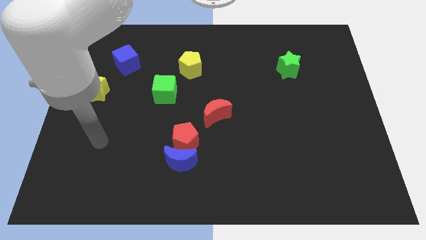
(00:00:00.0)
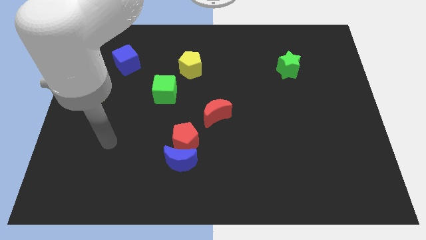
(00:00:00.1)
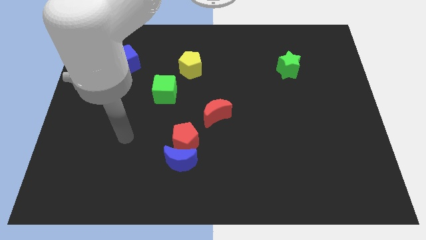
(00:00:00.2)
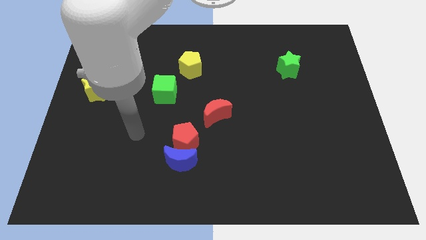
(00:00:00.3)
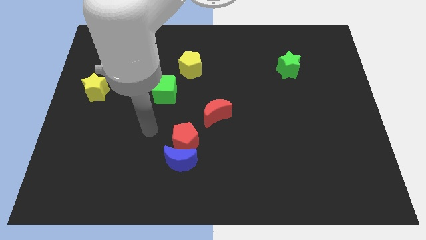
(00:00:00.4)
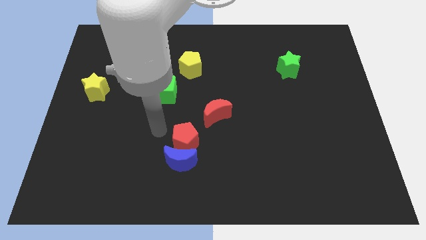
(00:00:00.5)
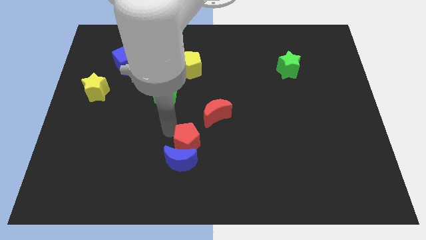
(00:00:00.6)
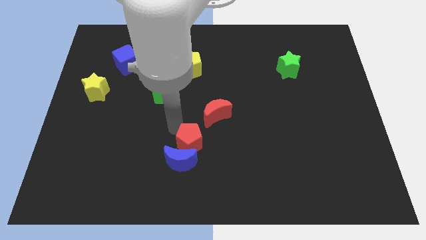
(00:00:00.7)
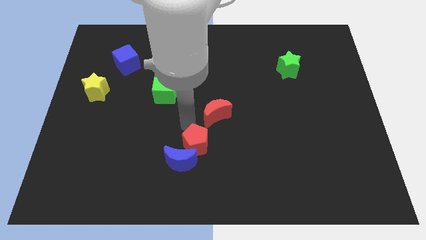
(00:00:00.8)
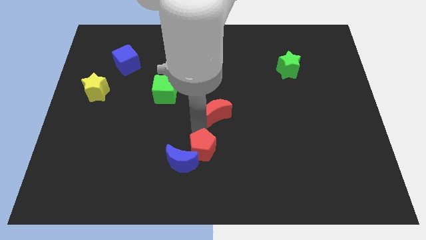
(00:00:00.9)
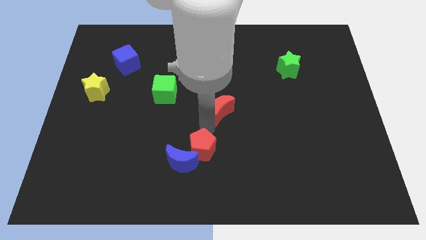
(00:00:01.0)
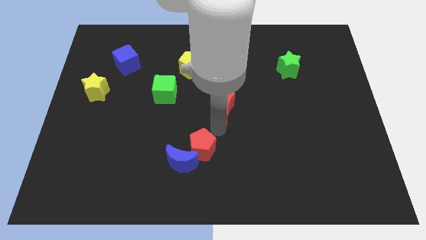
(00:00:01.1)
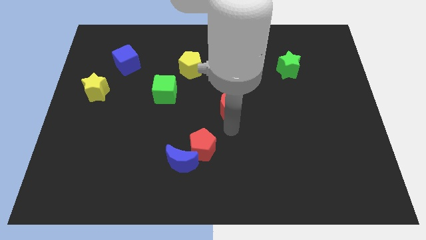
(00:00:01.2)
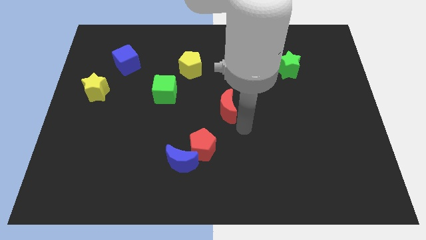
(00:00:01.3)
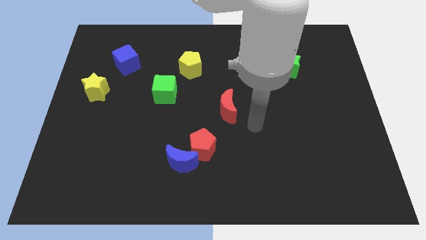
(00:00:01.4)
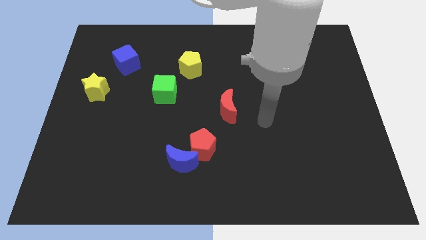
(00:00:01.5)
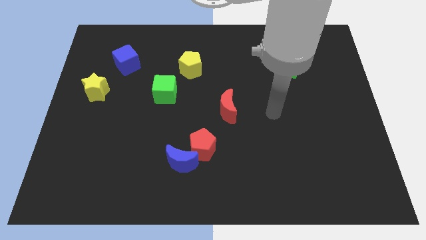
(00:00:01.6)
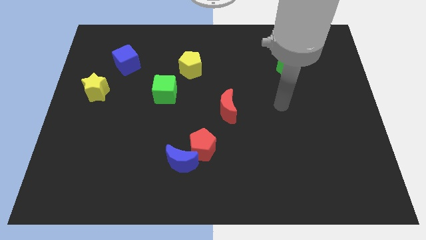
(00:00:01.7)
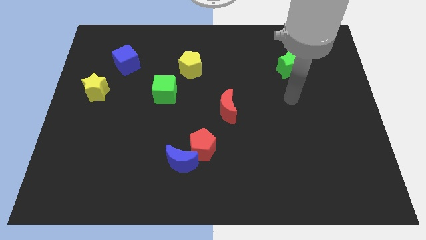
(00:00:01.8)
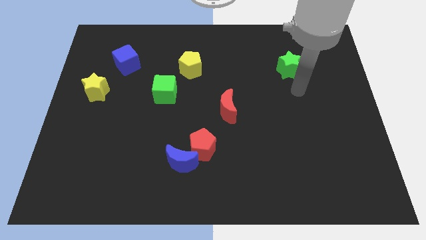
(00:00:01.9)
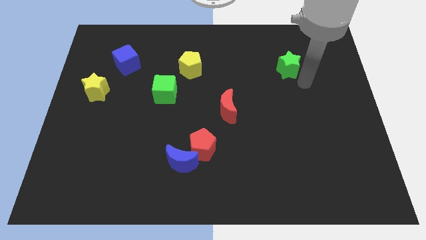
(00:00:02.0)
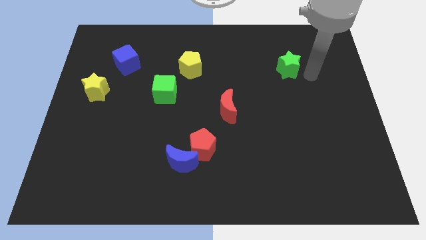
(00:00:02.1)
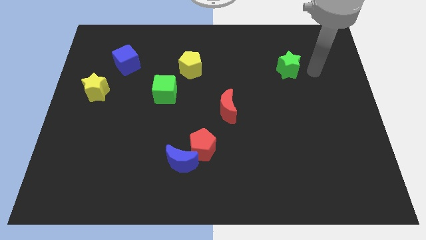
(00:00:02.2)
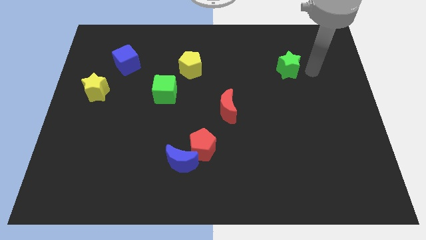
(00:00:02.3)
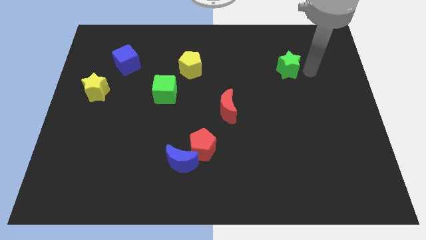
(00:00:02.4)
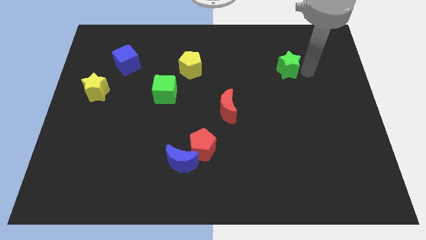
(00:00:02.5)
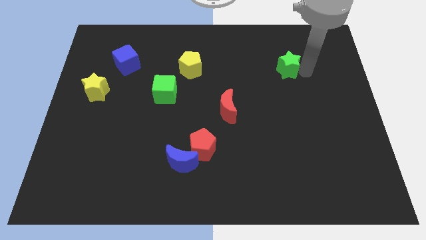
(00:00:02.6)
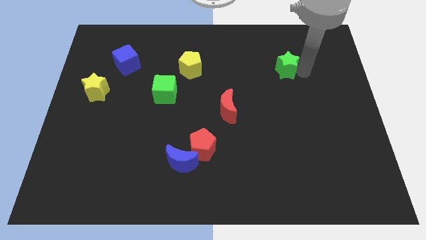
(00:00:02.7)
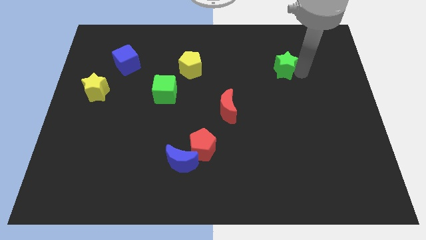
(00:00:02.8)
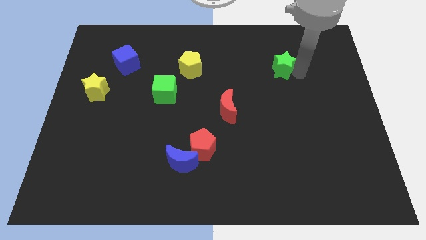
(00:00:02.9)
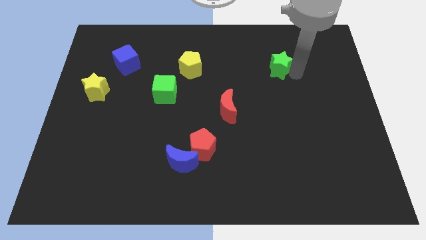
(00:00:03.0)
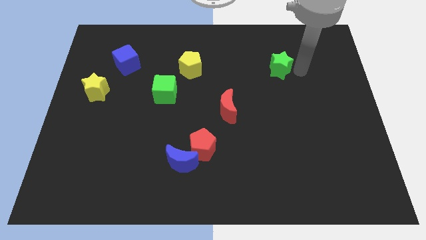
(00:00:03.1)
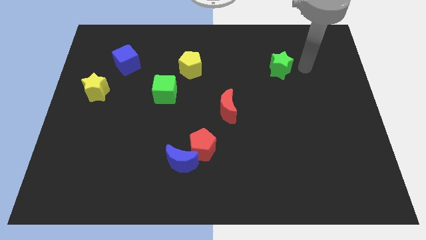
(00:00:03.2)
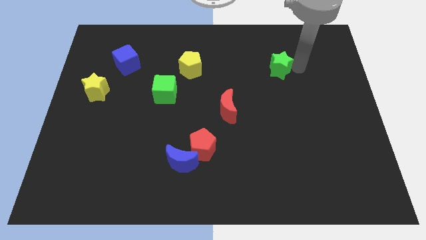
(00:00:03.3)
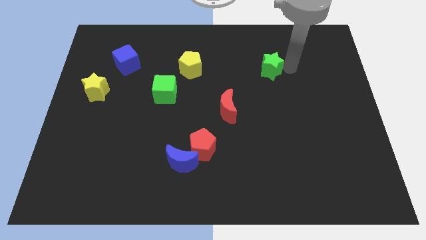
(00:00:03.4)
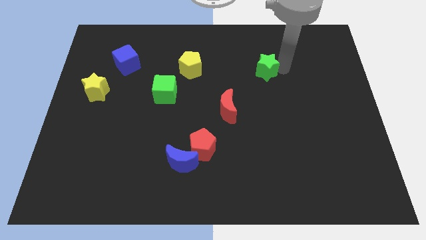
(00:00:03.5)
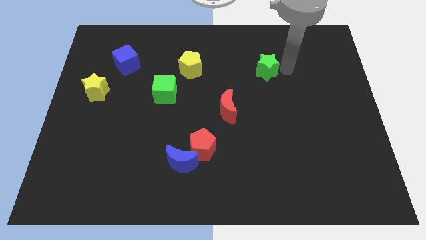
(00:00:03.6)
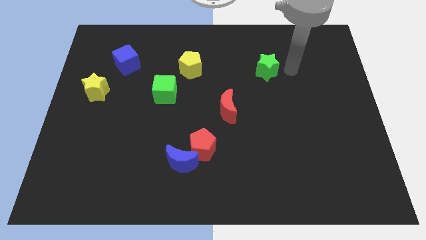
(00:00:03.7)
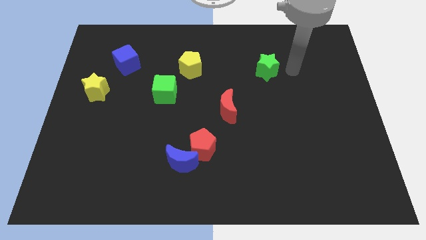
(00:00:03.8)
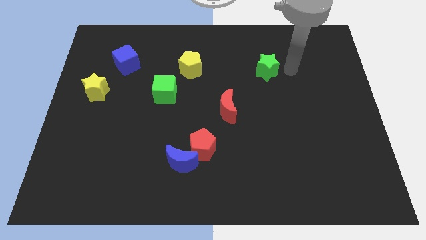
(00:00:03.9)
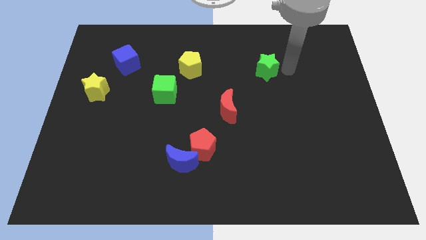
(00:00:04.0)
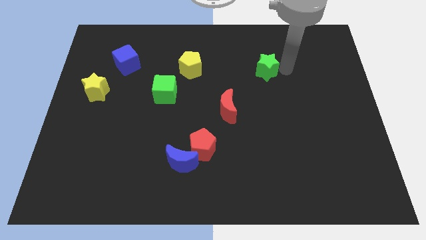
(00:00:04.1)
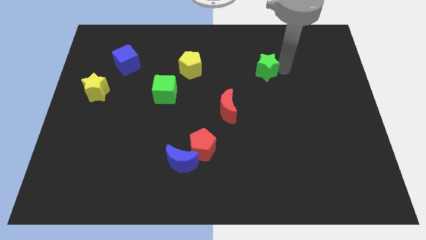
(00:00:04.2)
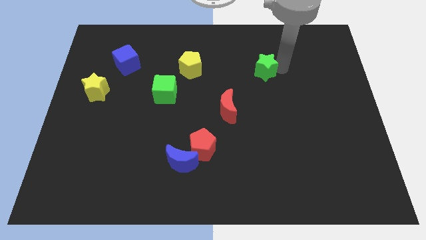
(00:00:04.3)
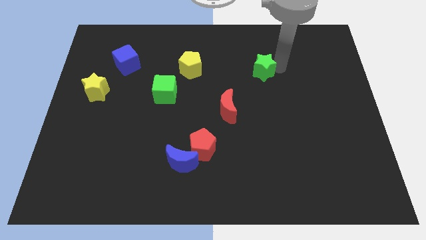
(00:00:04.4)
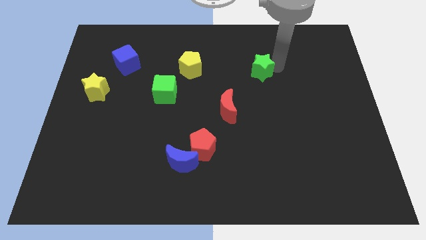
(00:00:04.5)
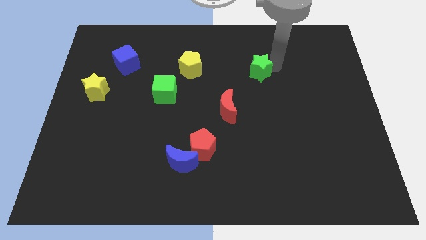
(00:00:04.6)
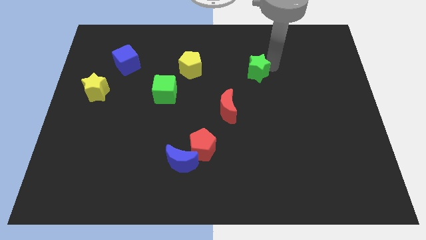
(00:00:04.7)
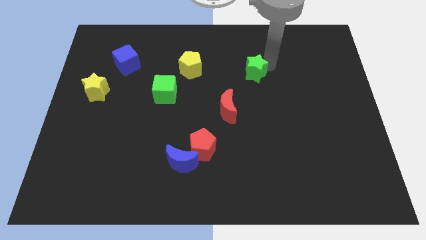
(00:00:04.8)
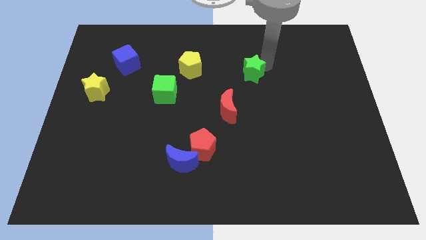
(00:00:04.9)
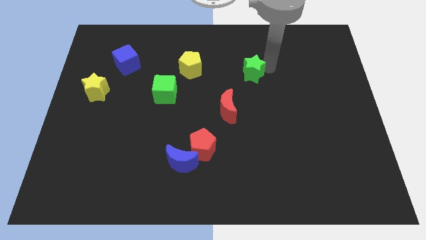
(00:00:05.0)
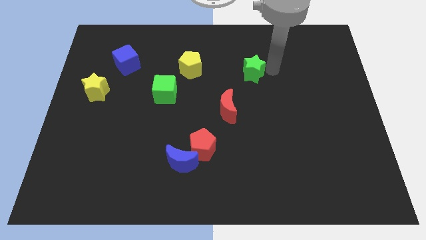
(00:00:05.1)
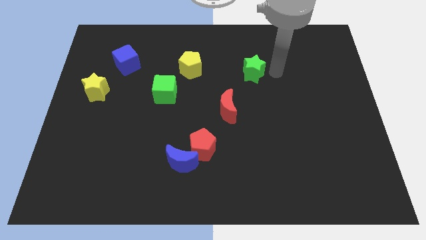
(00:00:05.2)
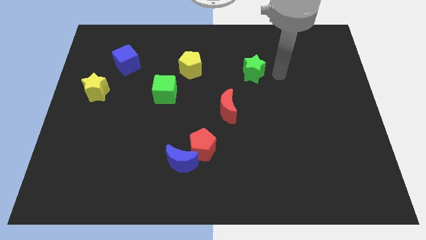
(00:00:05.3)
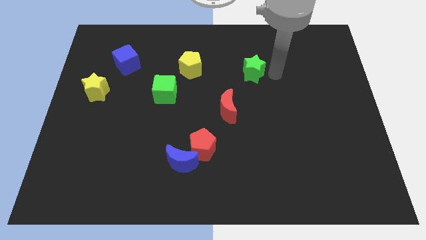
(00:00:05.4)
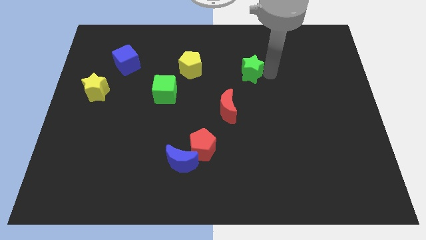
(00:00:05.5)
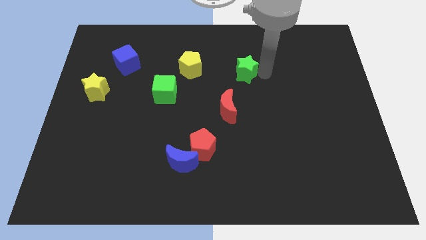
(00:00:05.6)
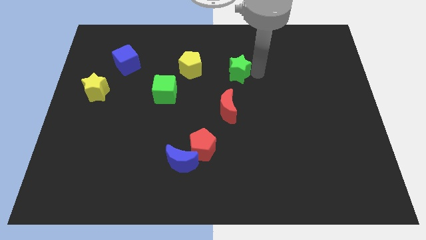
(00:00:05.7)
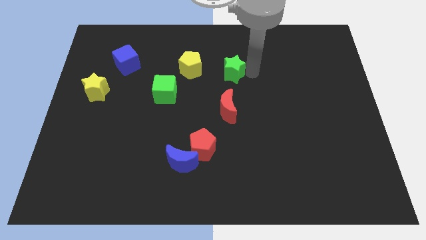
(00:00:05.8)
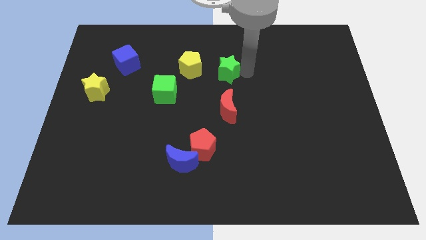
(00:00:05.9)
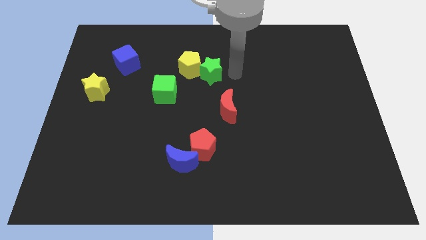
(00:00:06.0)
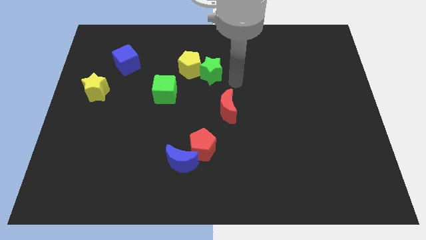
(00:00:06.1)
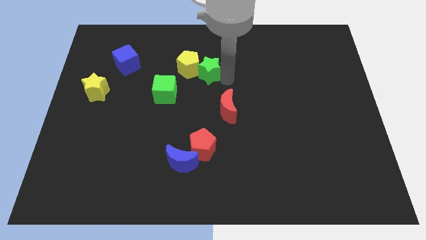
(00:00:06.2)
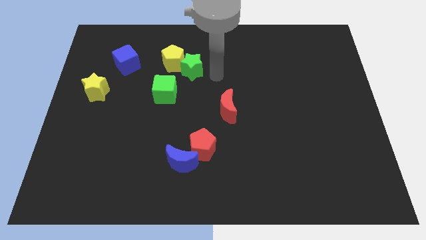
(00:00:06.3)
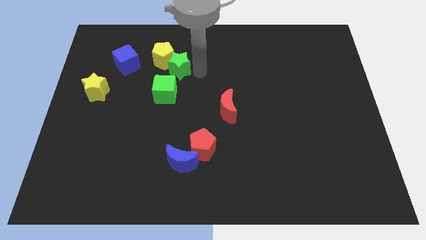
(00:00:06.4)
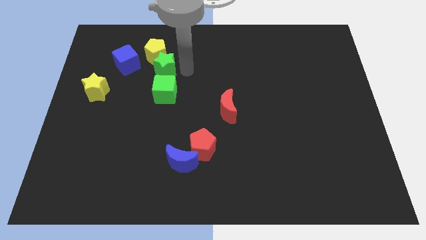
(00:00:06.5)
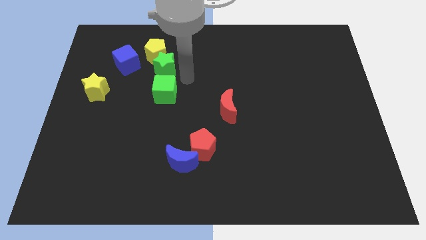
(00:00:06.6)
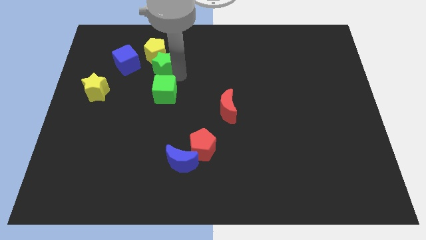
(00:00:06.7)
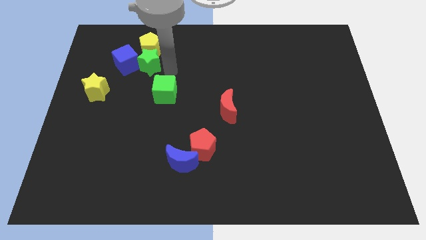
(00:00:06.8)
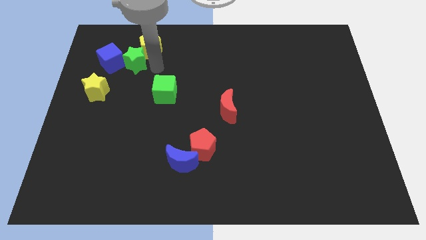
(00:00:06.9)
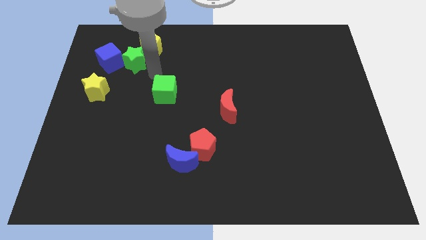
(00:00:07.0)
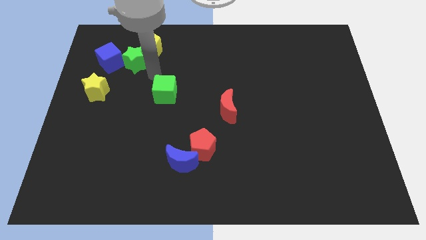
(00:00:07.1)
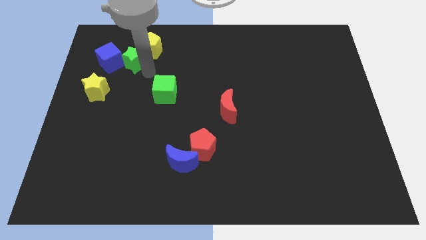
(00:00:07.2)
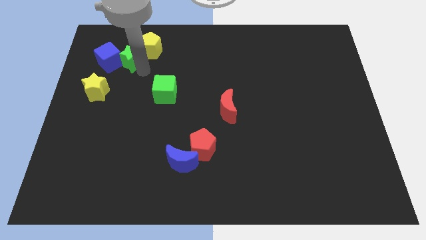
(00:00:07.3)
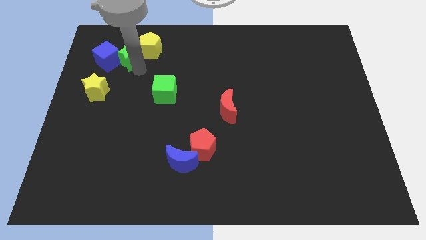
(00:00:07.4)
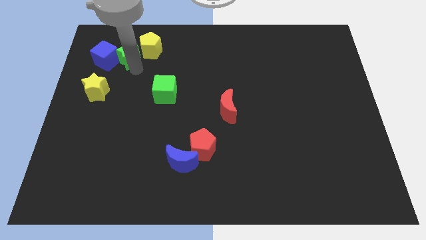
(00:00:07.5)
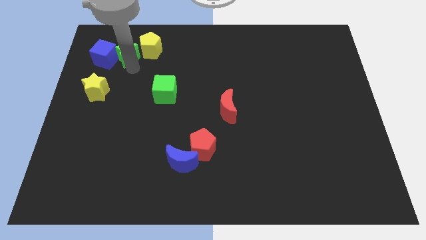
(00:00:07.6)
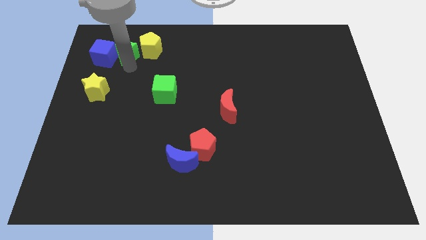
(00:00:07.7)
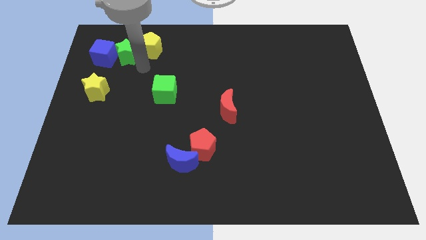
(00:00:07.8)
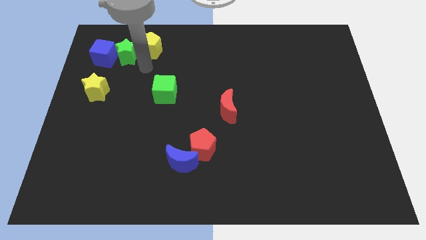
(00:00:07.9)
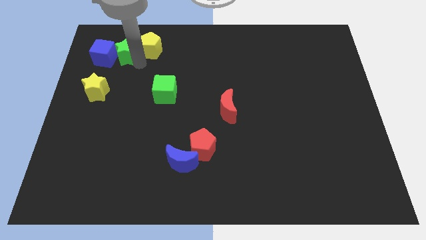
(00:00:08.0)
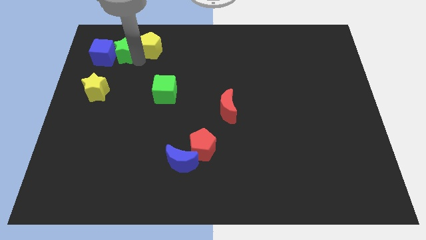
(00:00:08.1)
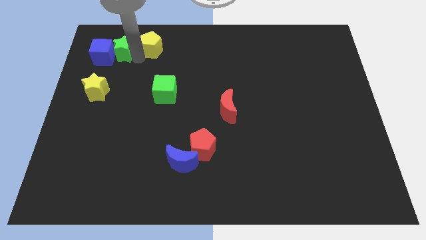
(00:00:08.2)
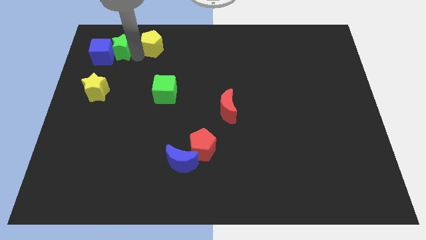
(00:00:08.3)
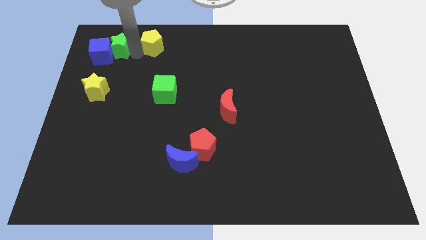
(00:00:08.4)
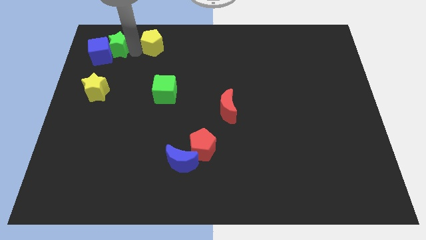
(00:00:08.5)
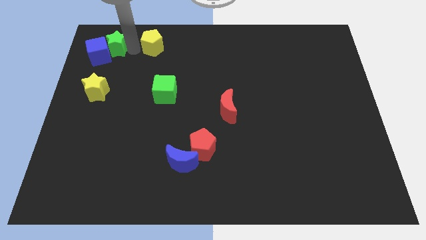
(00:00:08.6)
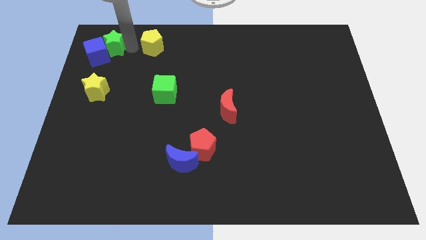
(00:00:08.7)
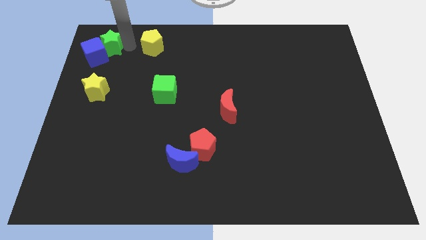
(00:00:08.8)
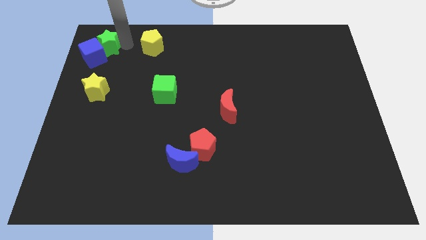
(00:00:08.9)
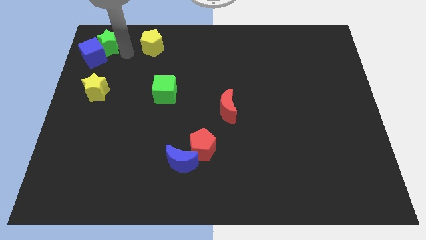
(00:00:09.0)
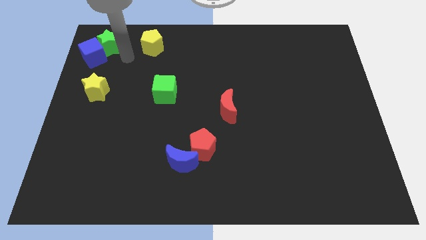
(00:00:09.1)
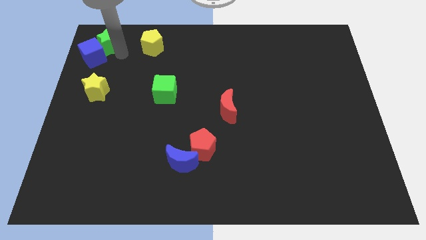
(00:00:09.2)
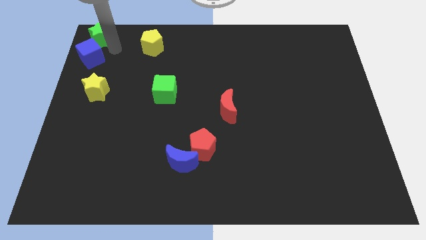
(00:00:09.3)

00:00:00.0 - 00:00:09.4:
push the green star to the top left corner
